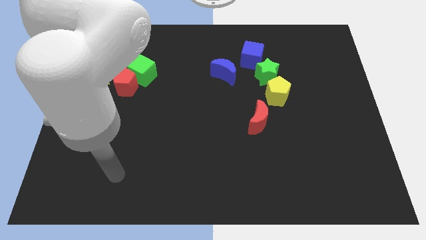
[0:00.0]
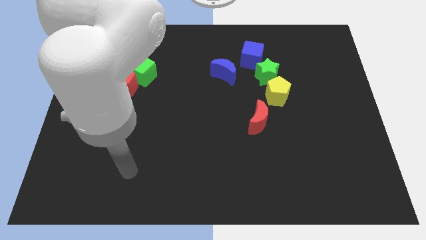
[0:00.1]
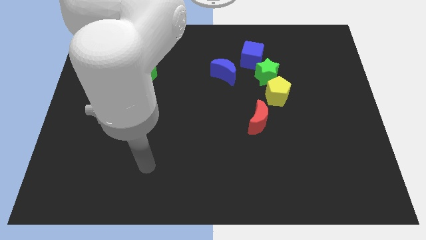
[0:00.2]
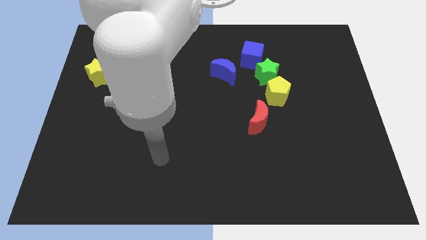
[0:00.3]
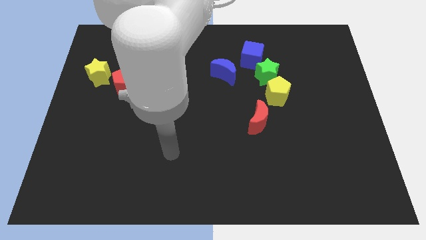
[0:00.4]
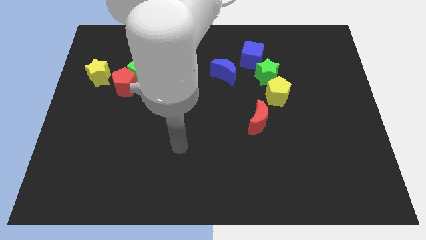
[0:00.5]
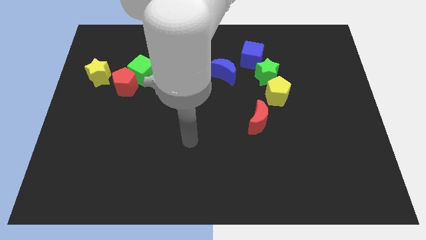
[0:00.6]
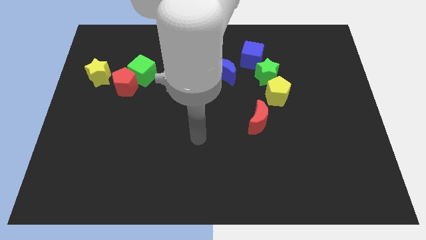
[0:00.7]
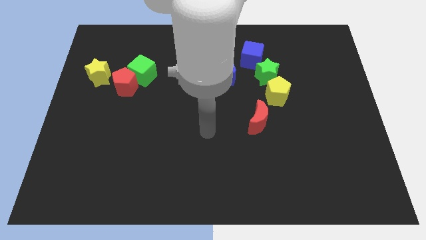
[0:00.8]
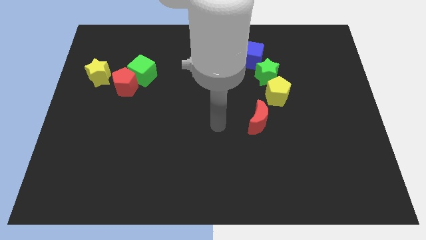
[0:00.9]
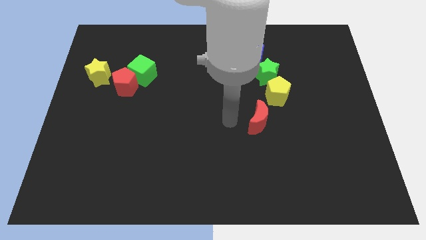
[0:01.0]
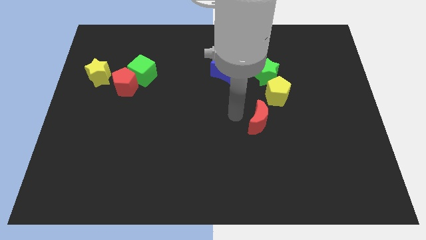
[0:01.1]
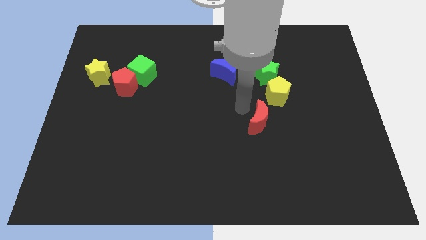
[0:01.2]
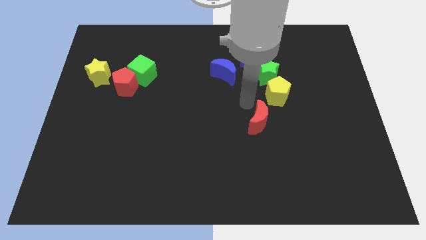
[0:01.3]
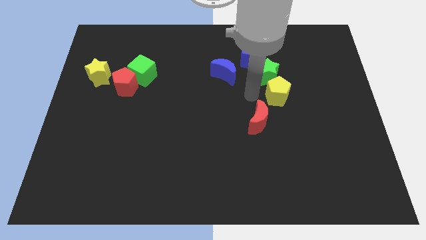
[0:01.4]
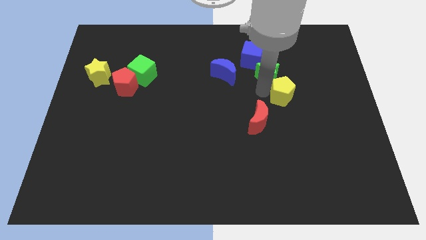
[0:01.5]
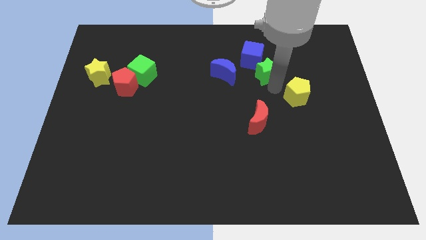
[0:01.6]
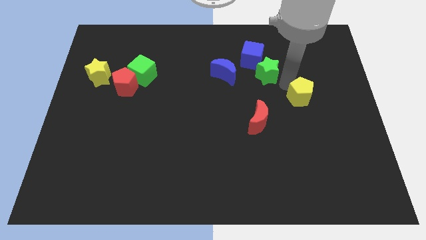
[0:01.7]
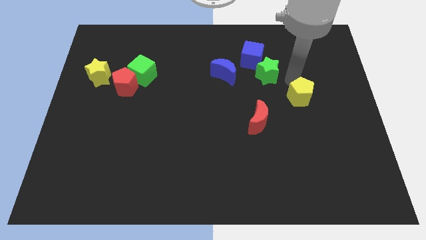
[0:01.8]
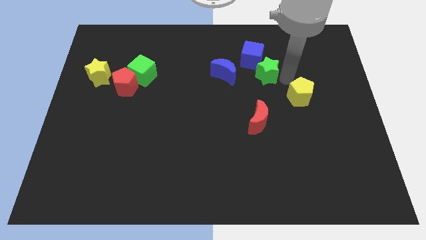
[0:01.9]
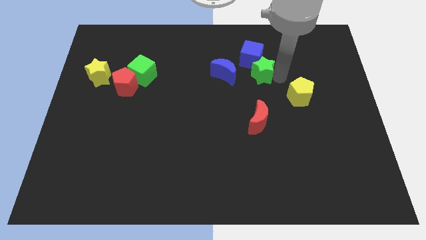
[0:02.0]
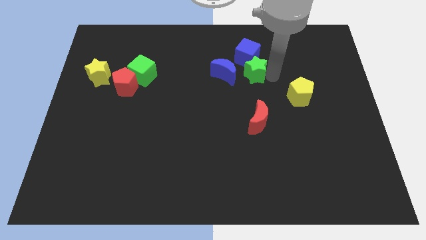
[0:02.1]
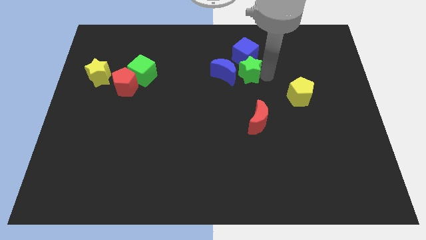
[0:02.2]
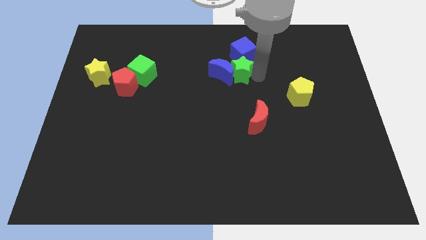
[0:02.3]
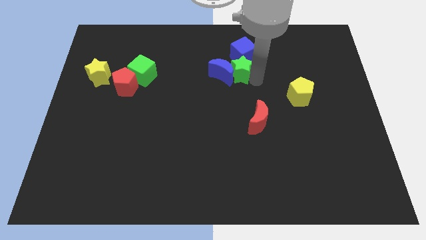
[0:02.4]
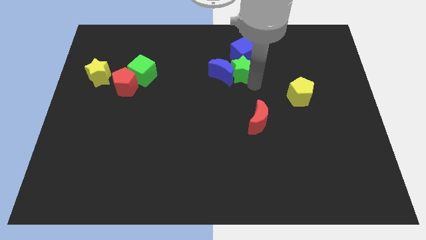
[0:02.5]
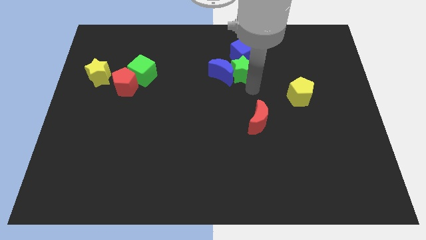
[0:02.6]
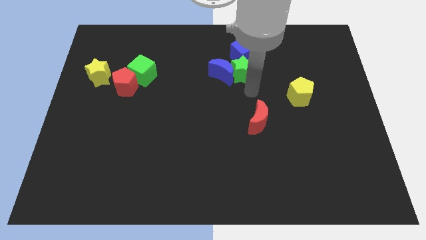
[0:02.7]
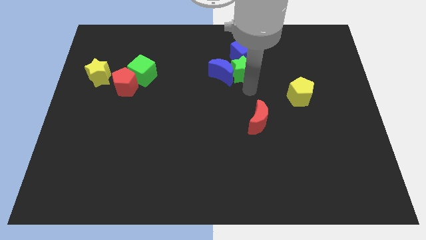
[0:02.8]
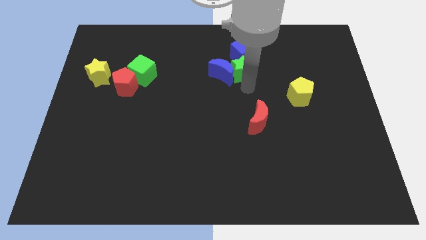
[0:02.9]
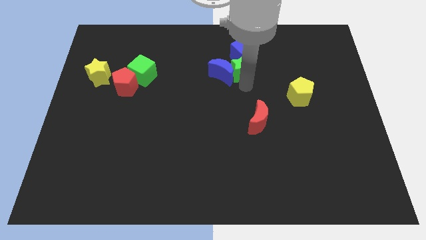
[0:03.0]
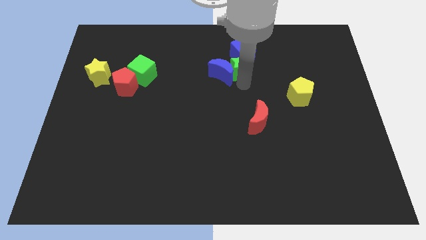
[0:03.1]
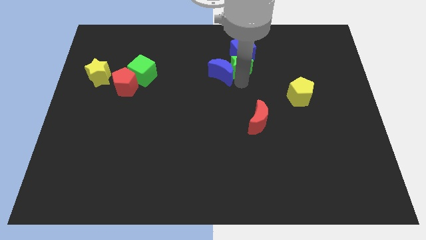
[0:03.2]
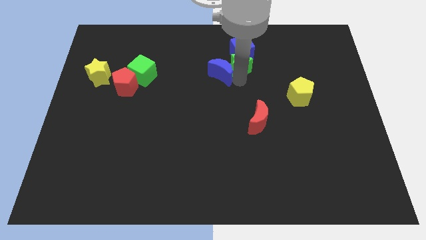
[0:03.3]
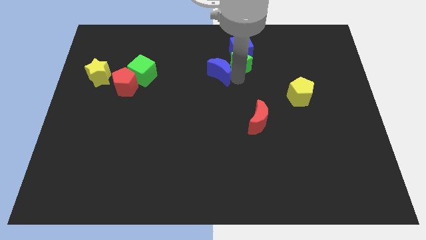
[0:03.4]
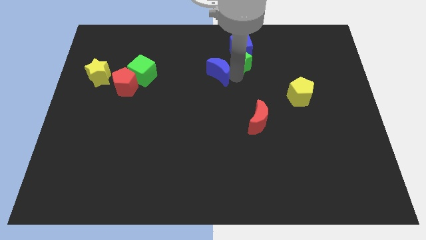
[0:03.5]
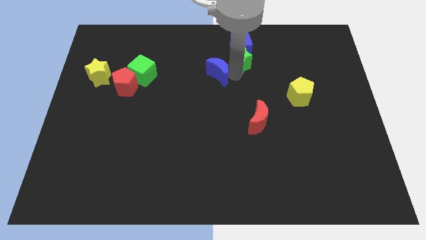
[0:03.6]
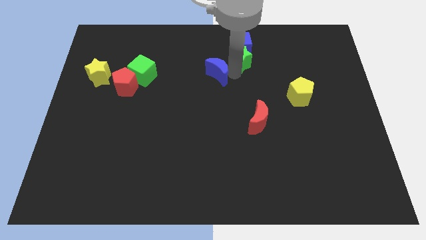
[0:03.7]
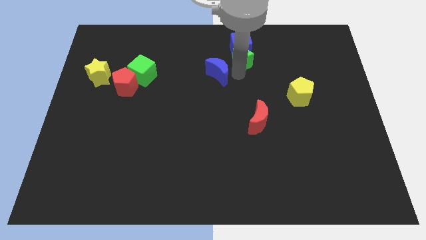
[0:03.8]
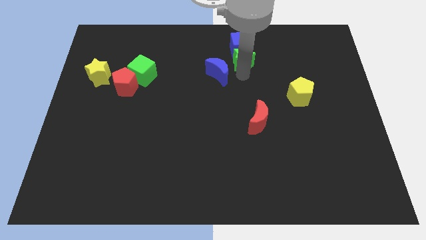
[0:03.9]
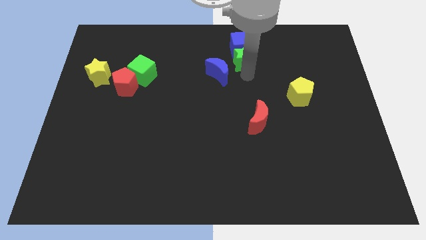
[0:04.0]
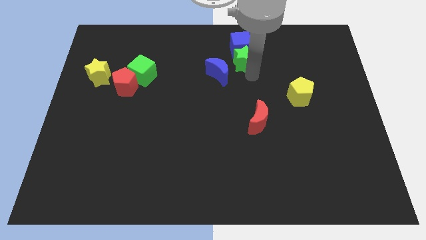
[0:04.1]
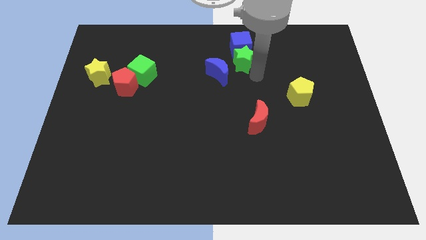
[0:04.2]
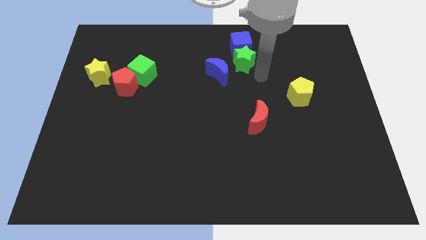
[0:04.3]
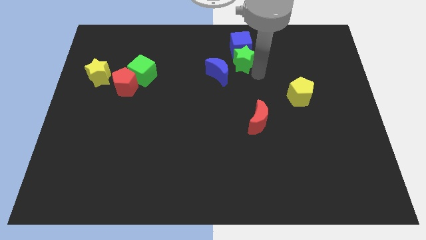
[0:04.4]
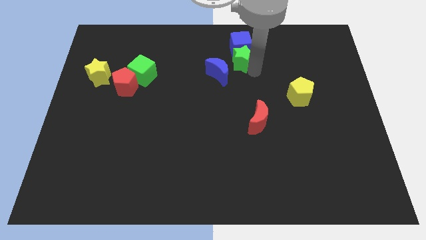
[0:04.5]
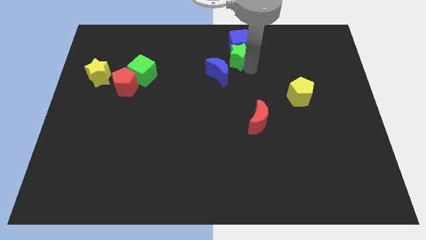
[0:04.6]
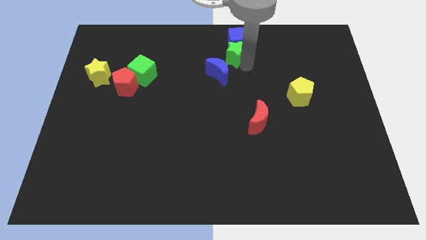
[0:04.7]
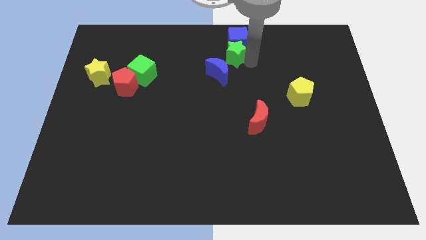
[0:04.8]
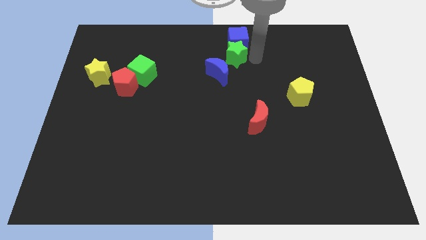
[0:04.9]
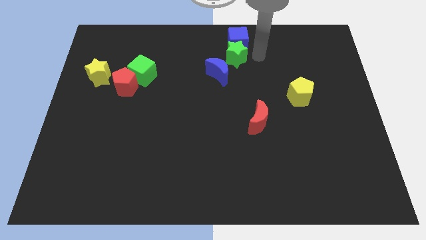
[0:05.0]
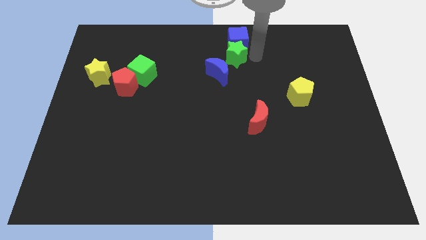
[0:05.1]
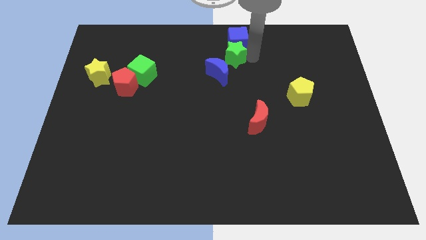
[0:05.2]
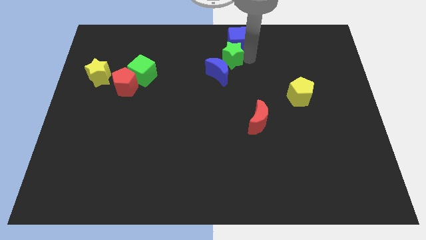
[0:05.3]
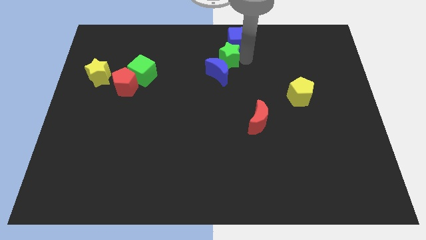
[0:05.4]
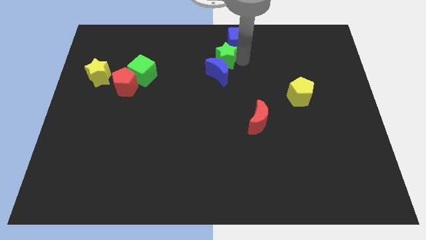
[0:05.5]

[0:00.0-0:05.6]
put the green star to the top left of the blue moon

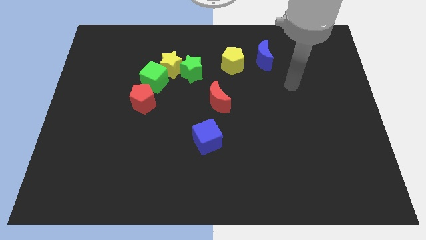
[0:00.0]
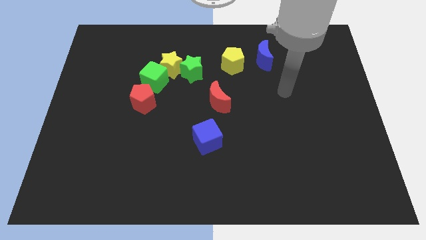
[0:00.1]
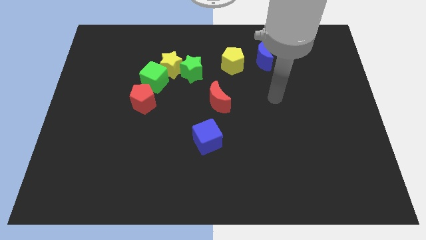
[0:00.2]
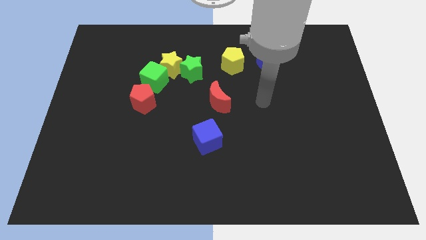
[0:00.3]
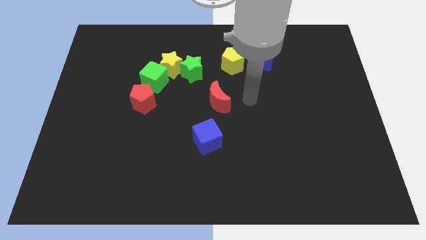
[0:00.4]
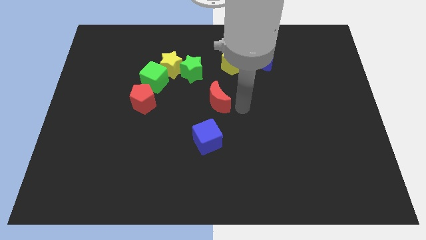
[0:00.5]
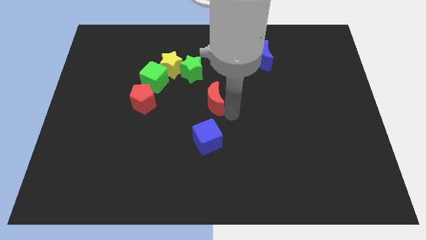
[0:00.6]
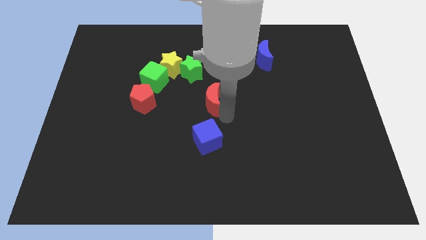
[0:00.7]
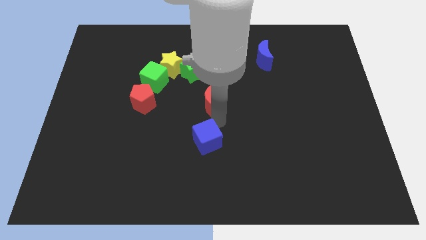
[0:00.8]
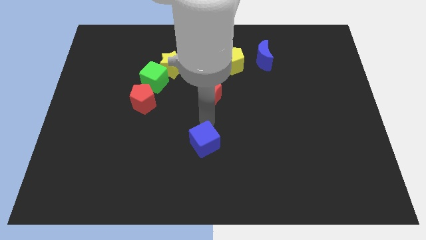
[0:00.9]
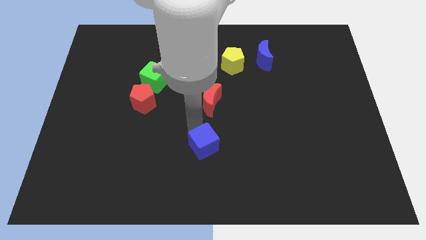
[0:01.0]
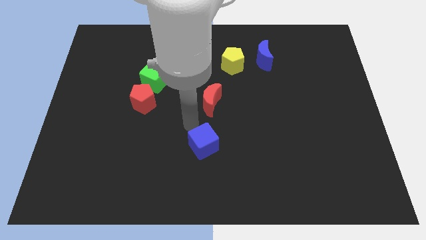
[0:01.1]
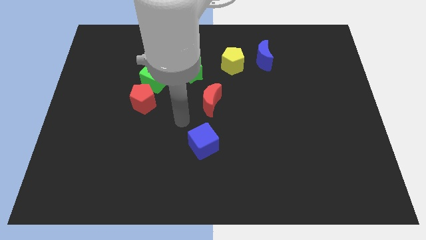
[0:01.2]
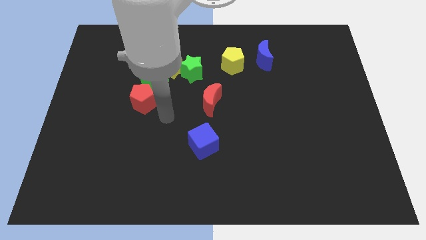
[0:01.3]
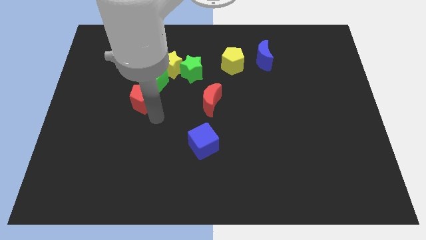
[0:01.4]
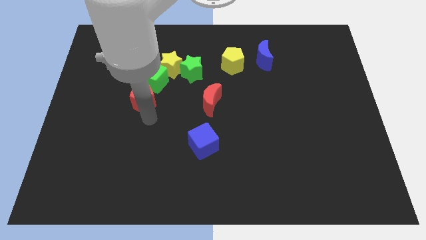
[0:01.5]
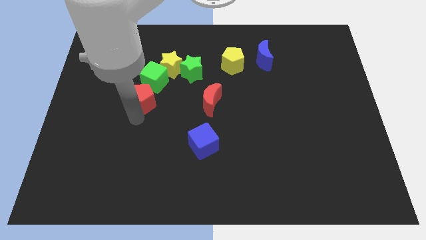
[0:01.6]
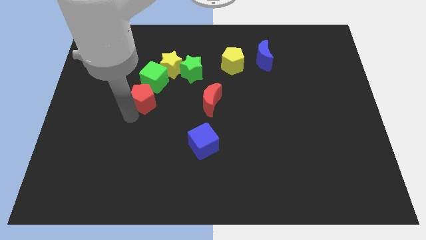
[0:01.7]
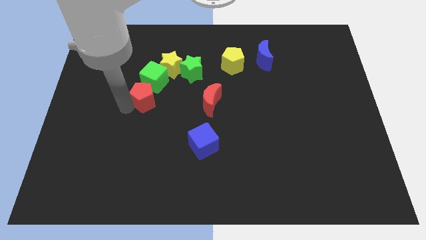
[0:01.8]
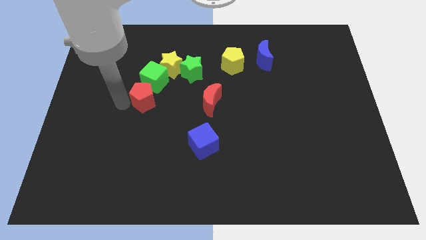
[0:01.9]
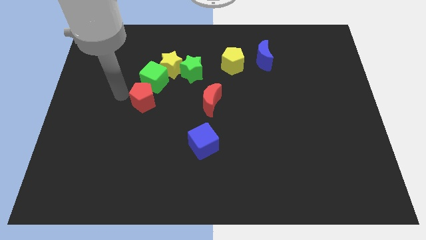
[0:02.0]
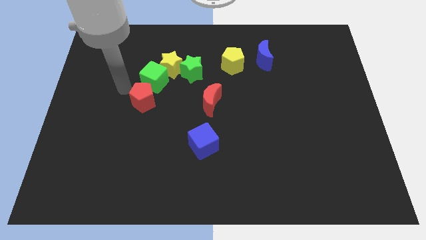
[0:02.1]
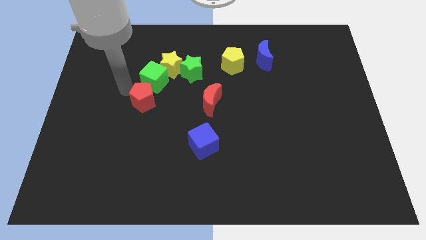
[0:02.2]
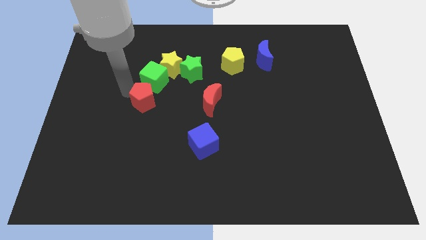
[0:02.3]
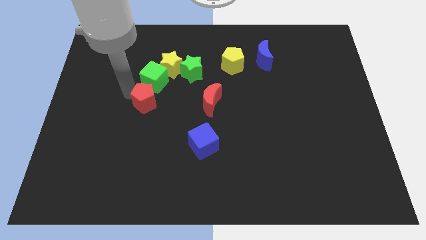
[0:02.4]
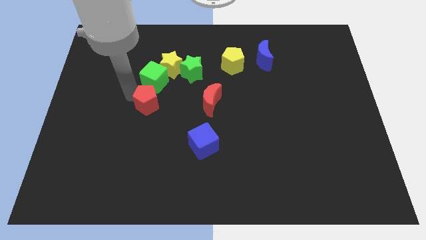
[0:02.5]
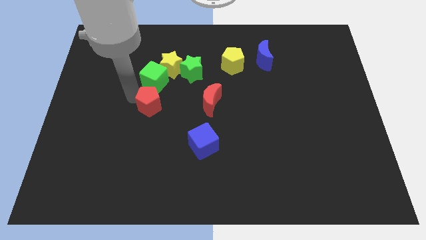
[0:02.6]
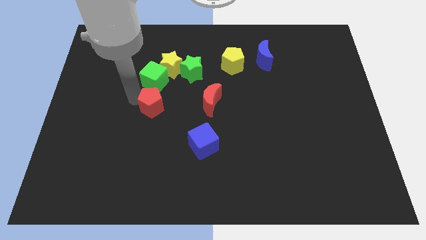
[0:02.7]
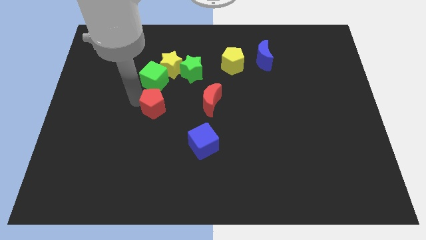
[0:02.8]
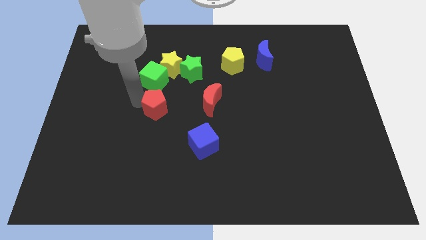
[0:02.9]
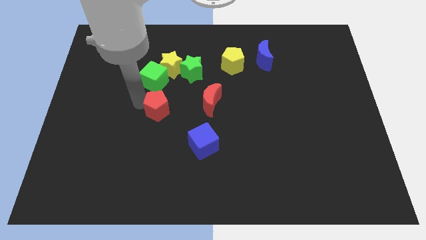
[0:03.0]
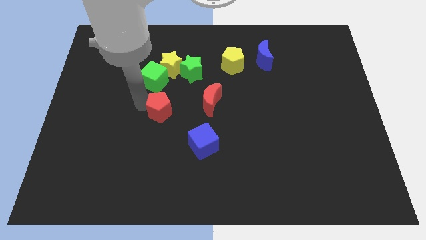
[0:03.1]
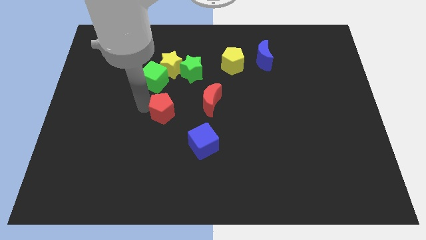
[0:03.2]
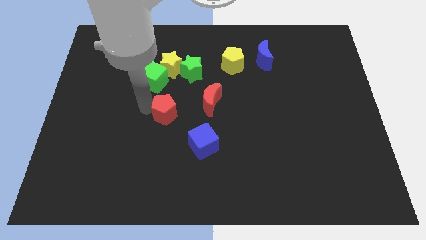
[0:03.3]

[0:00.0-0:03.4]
slide the red pentagon to the top left side of the blue cube
